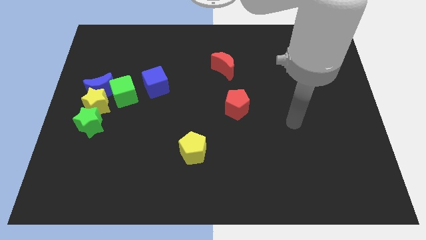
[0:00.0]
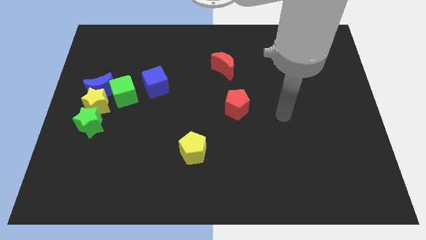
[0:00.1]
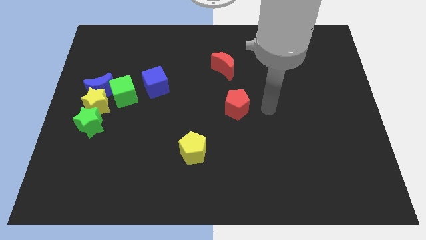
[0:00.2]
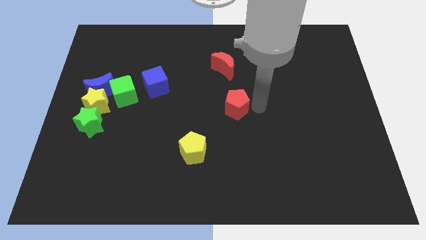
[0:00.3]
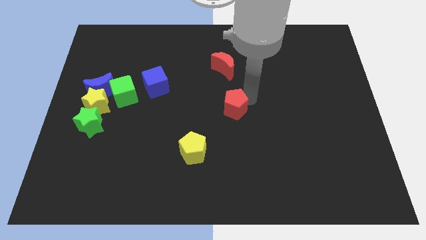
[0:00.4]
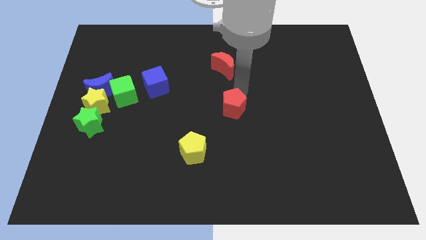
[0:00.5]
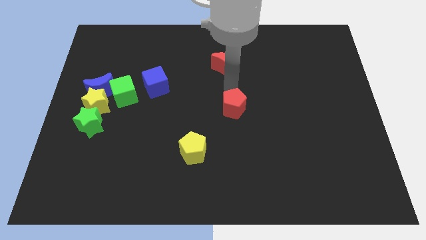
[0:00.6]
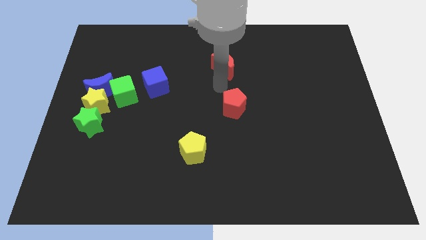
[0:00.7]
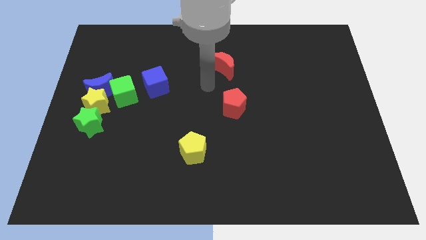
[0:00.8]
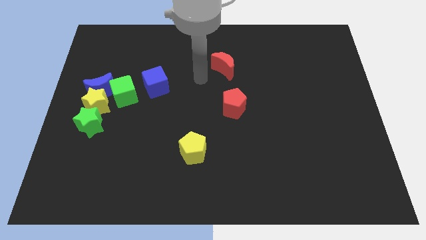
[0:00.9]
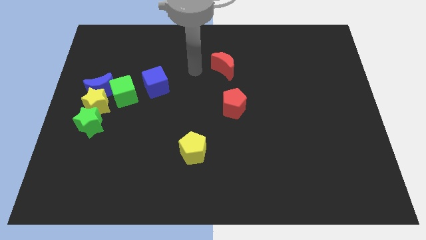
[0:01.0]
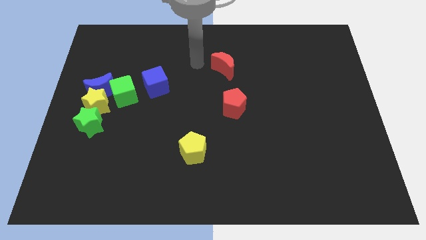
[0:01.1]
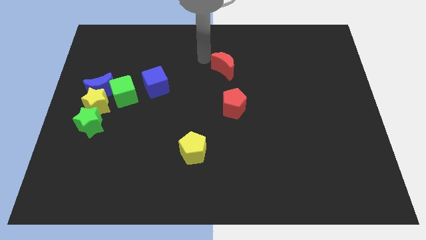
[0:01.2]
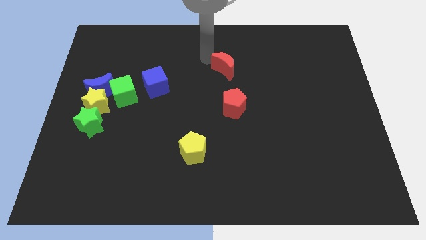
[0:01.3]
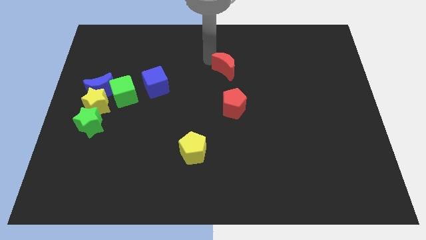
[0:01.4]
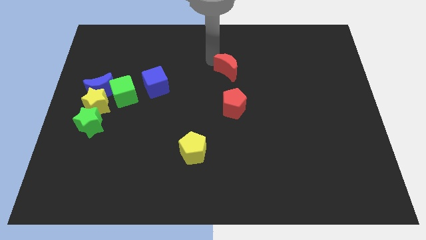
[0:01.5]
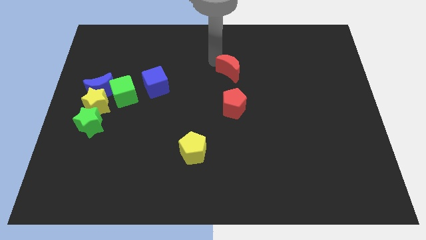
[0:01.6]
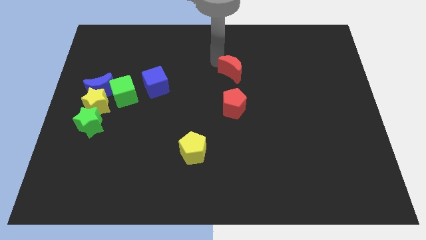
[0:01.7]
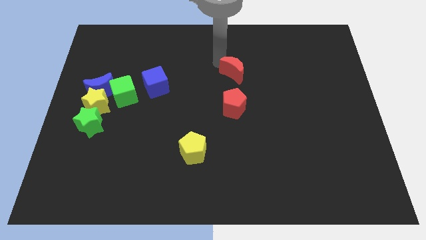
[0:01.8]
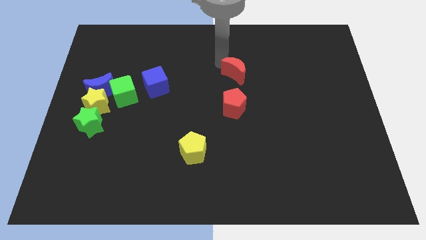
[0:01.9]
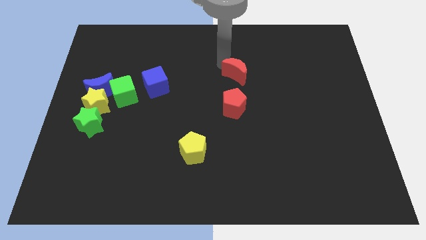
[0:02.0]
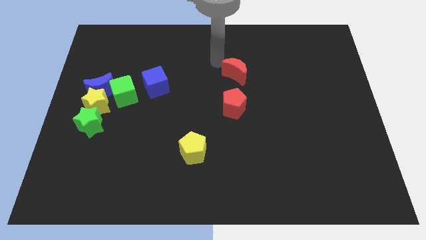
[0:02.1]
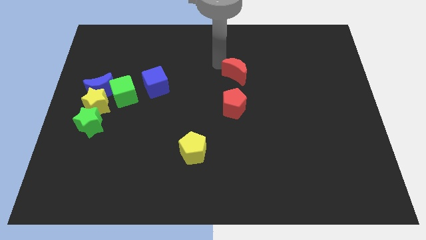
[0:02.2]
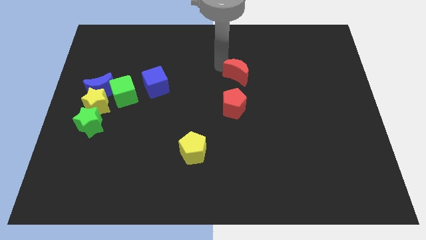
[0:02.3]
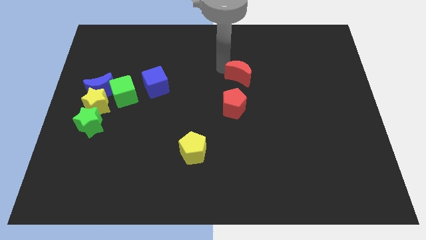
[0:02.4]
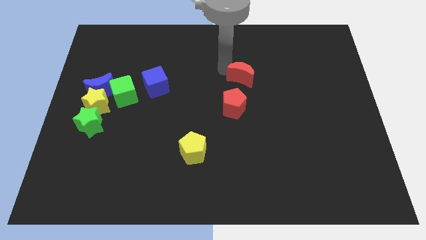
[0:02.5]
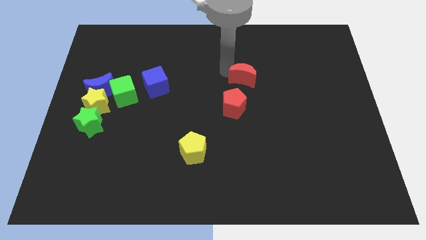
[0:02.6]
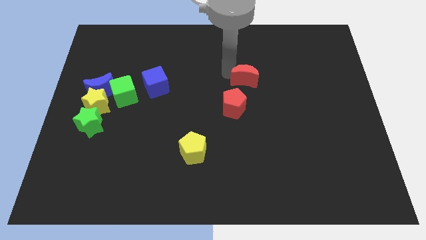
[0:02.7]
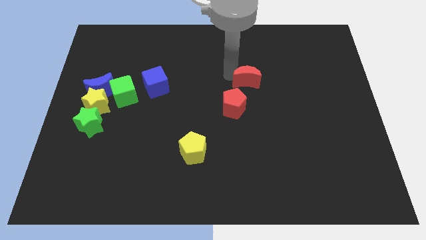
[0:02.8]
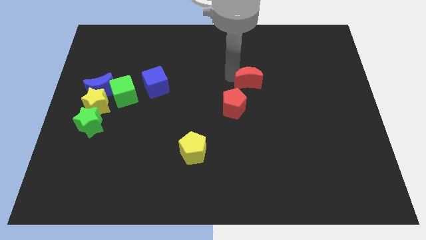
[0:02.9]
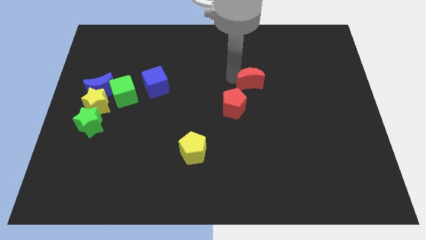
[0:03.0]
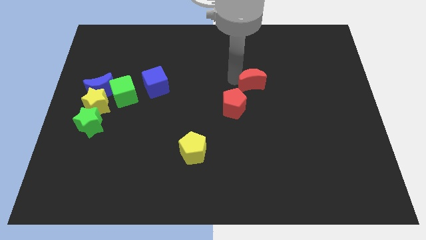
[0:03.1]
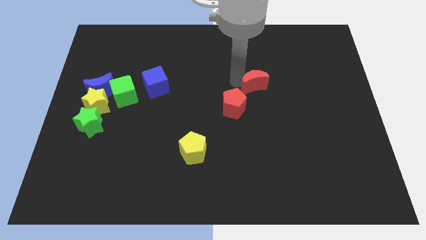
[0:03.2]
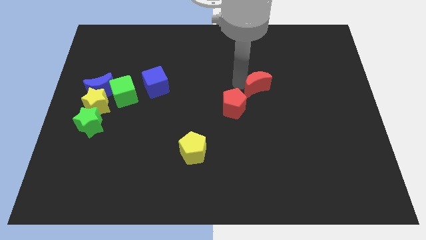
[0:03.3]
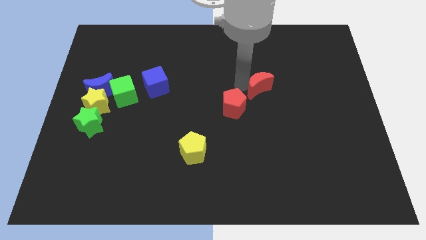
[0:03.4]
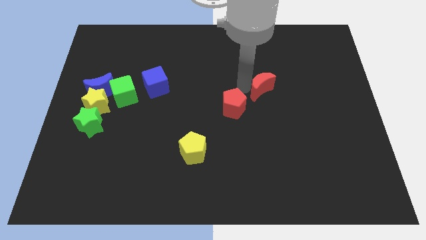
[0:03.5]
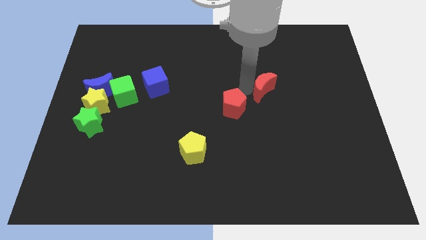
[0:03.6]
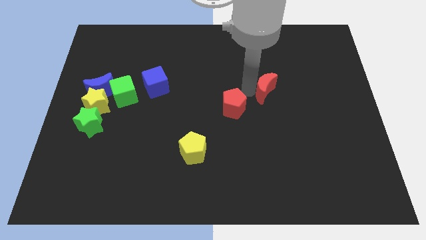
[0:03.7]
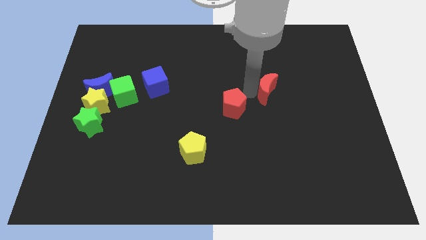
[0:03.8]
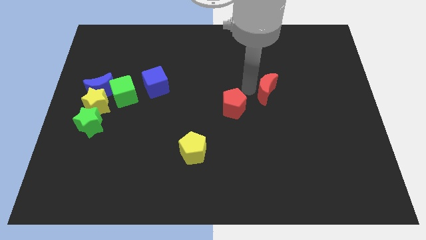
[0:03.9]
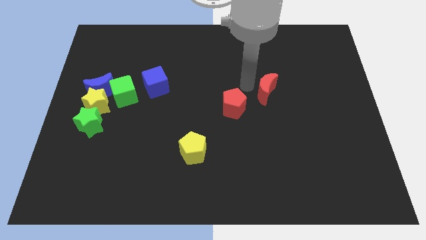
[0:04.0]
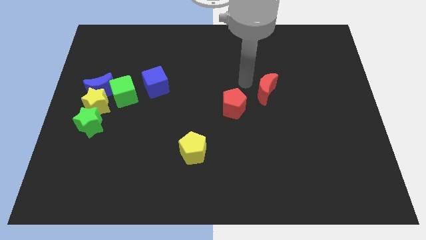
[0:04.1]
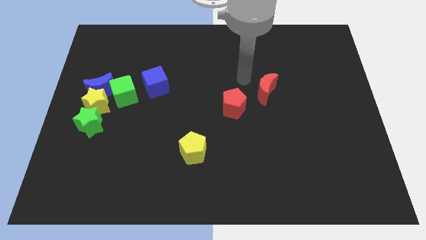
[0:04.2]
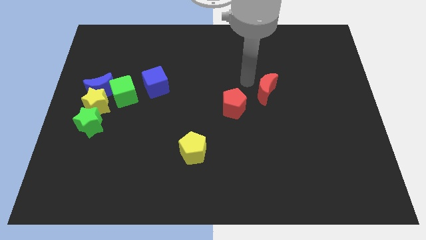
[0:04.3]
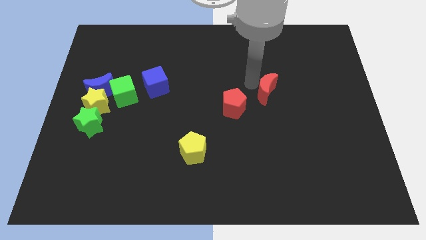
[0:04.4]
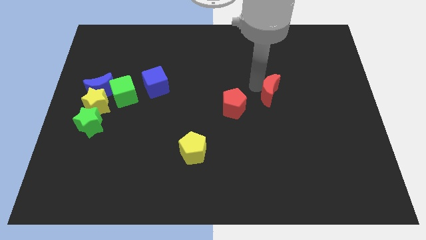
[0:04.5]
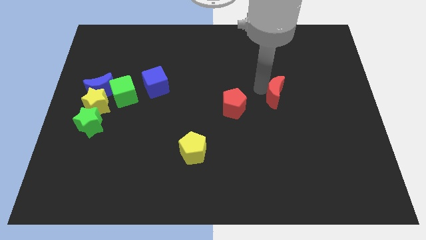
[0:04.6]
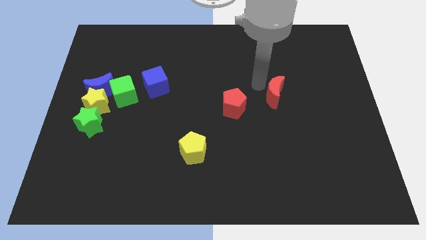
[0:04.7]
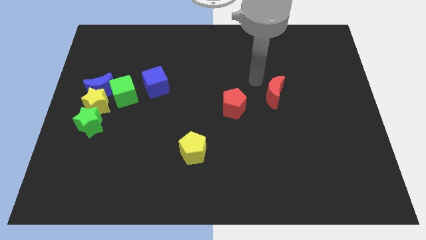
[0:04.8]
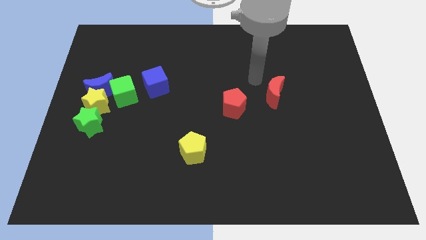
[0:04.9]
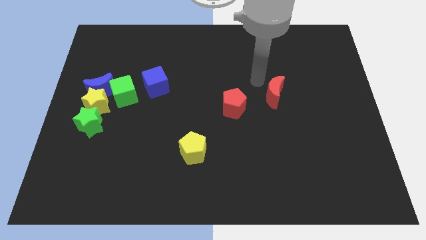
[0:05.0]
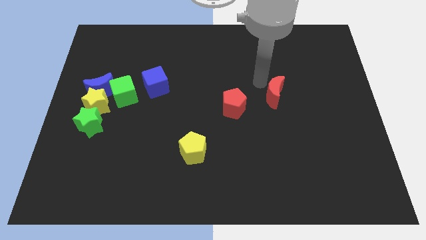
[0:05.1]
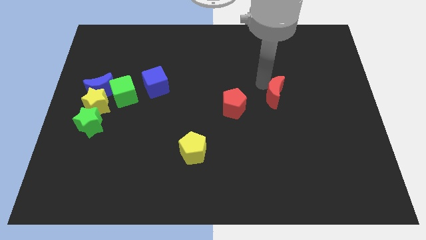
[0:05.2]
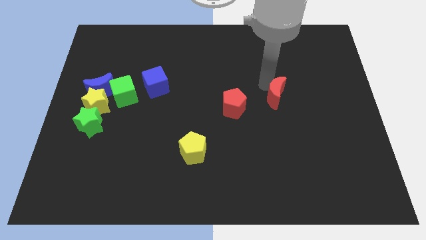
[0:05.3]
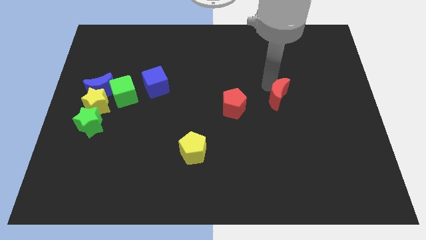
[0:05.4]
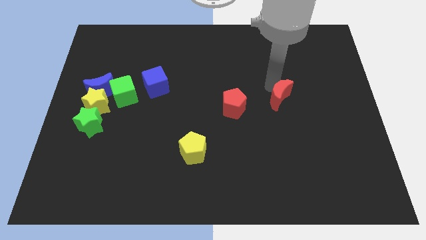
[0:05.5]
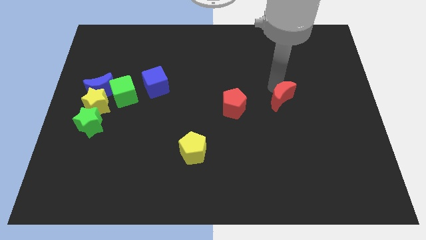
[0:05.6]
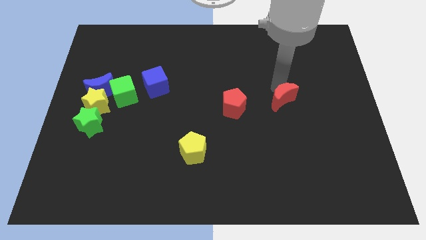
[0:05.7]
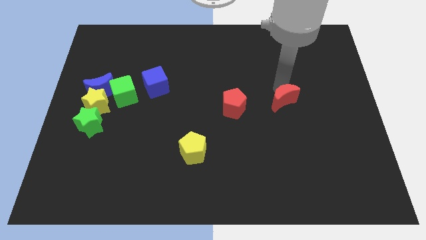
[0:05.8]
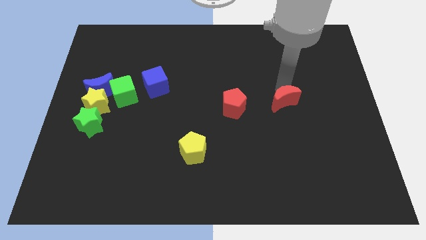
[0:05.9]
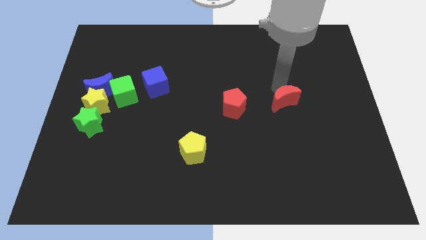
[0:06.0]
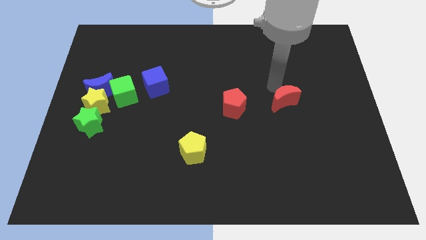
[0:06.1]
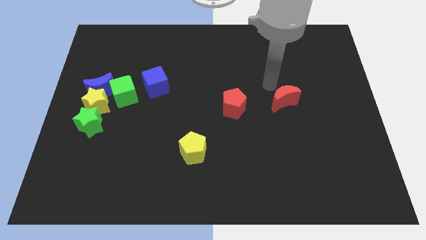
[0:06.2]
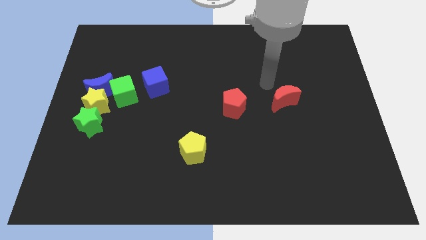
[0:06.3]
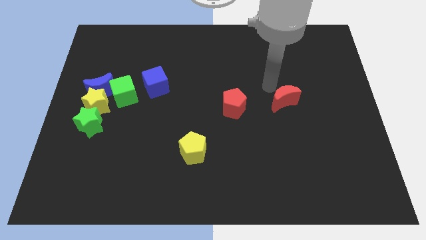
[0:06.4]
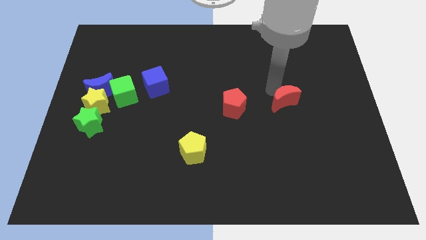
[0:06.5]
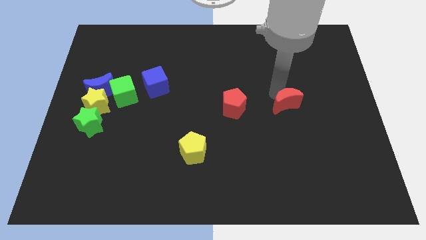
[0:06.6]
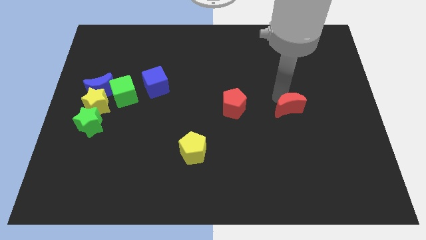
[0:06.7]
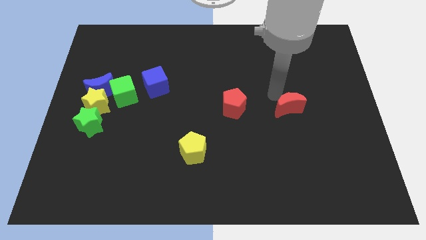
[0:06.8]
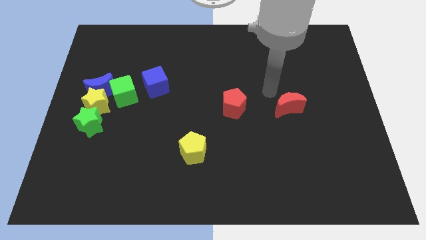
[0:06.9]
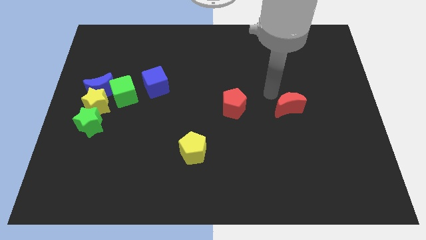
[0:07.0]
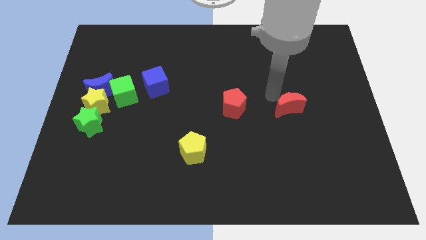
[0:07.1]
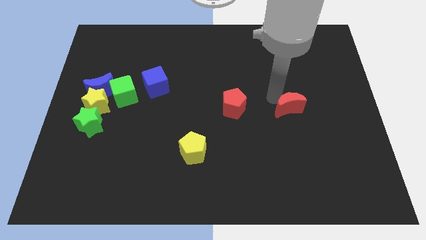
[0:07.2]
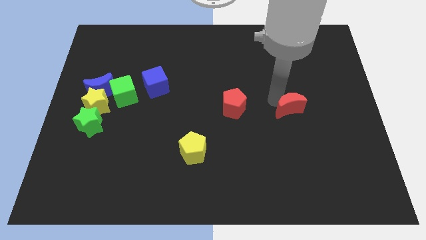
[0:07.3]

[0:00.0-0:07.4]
push the red moon down and then to the right

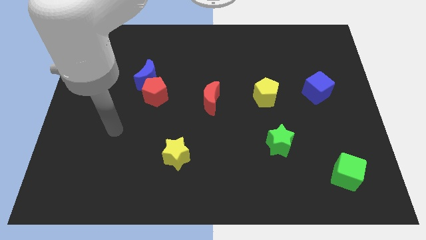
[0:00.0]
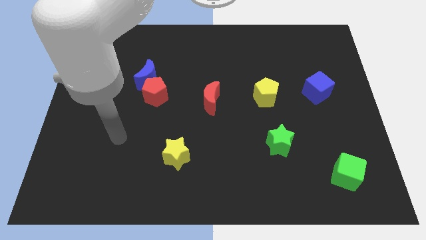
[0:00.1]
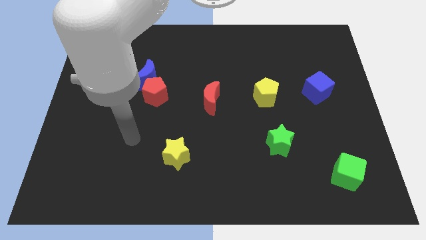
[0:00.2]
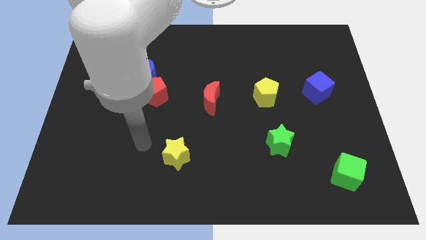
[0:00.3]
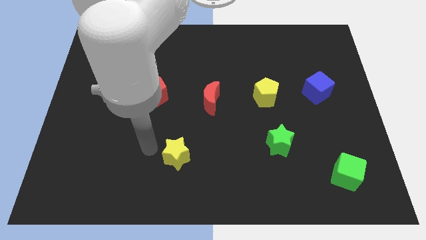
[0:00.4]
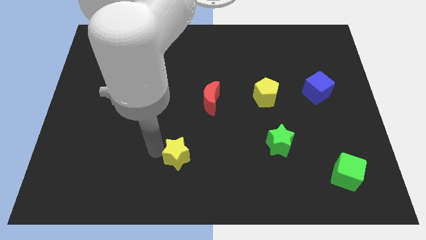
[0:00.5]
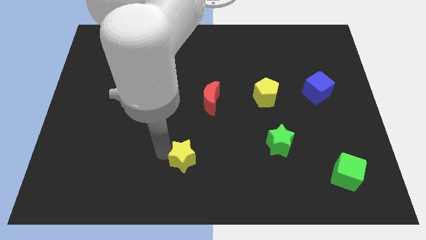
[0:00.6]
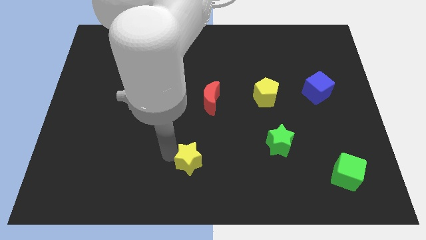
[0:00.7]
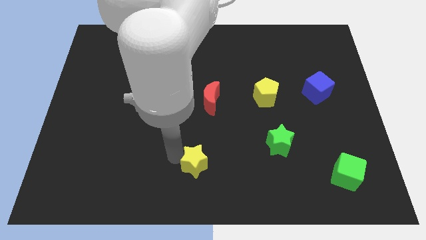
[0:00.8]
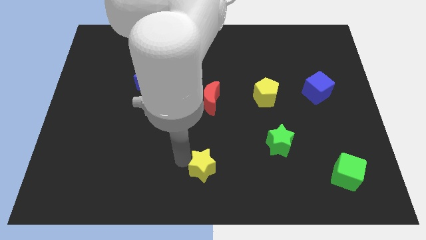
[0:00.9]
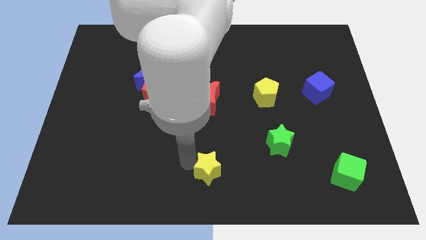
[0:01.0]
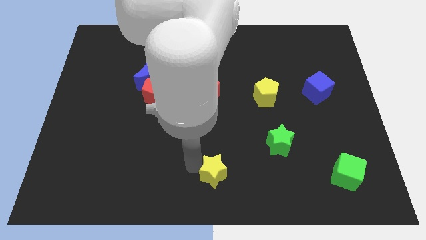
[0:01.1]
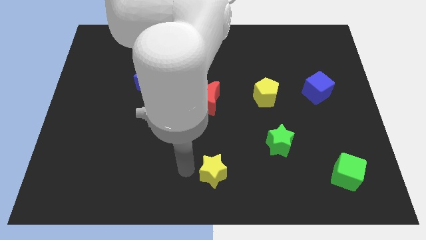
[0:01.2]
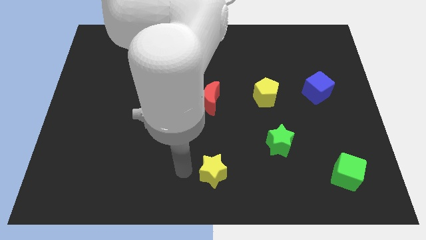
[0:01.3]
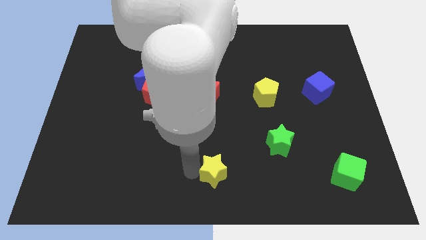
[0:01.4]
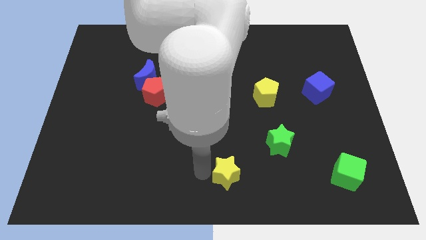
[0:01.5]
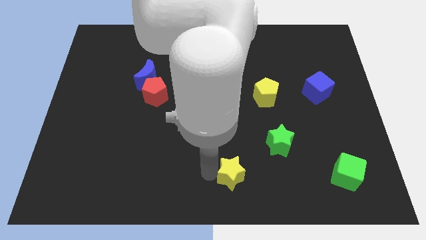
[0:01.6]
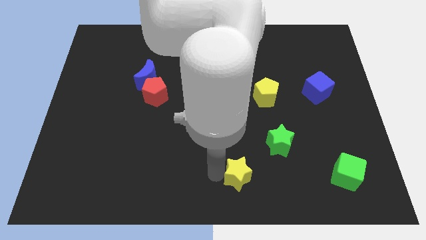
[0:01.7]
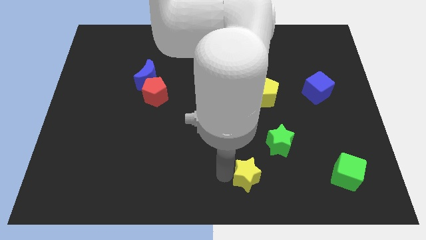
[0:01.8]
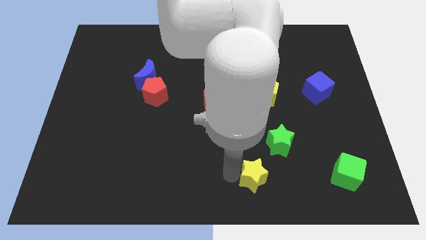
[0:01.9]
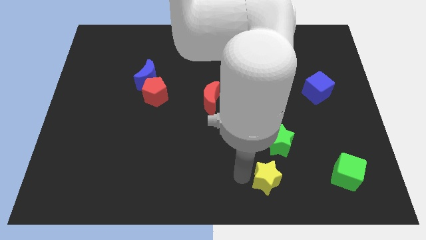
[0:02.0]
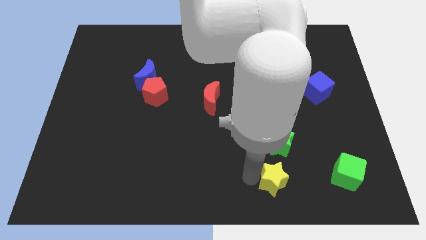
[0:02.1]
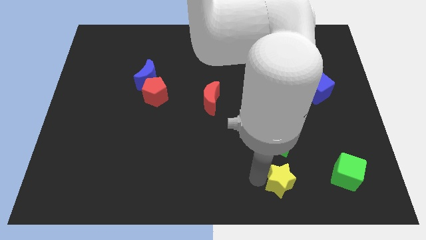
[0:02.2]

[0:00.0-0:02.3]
push the yellow star to the right
